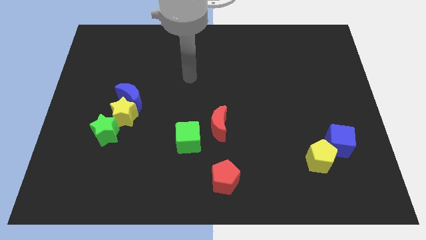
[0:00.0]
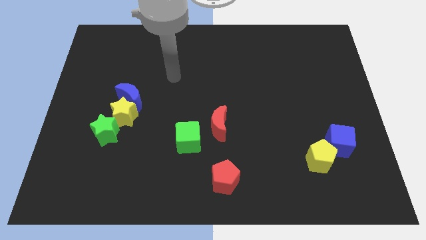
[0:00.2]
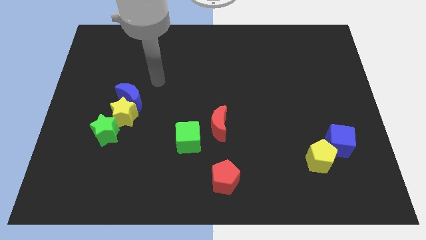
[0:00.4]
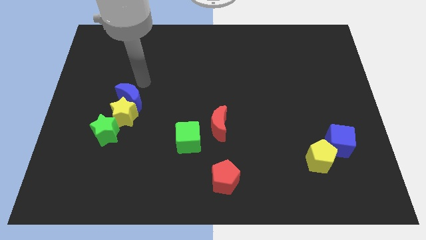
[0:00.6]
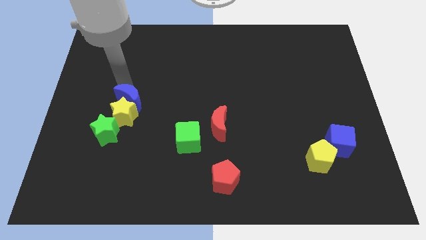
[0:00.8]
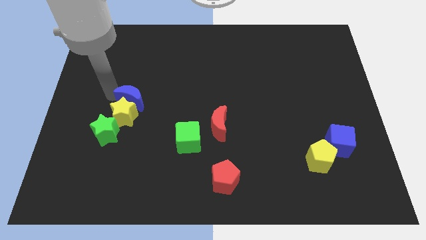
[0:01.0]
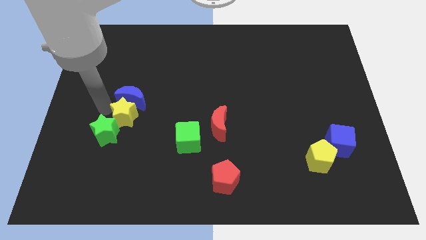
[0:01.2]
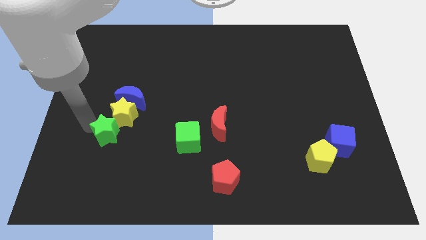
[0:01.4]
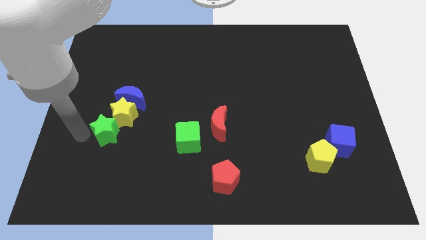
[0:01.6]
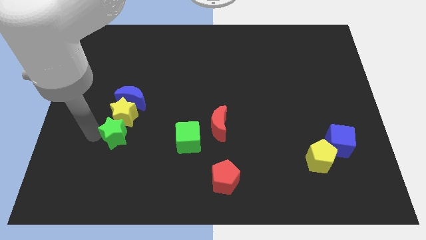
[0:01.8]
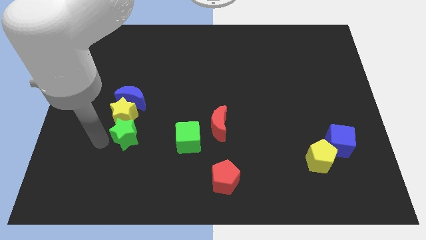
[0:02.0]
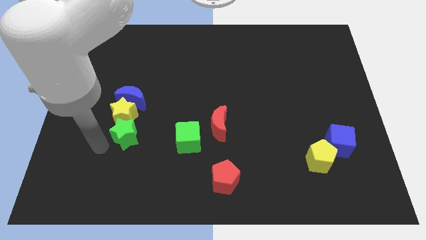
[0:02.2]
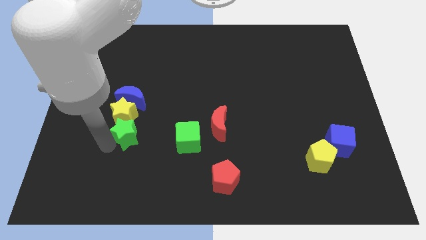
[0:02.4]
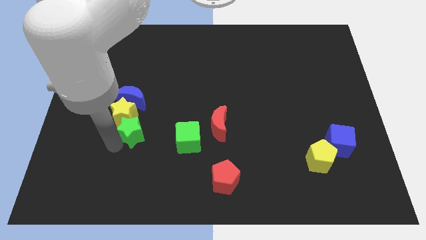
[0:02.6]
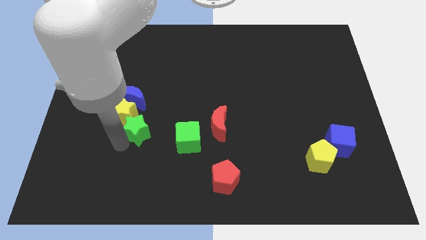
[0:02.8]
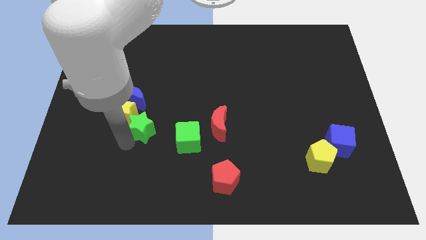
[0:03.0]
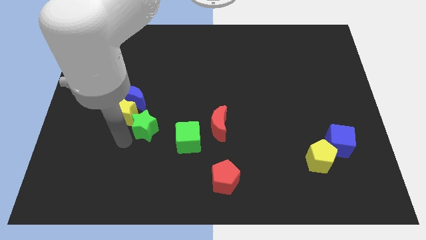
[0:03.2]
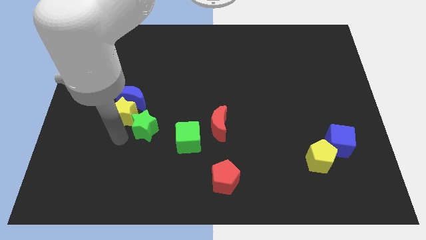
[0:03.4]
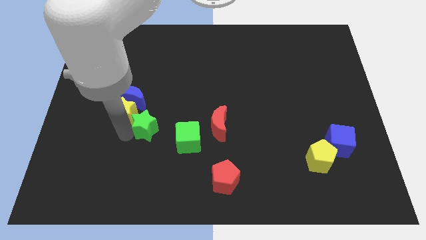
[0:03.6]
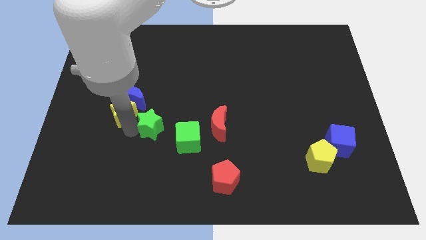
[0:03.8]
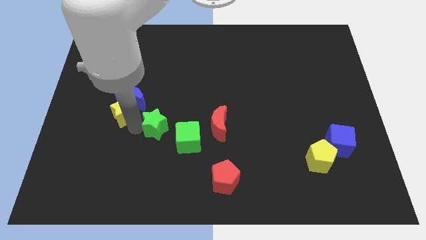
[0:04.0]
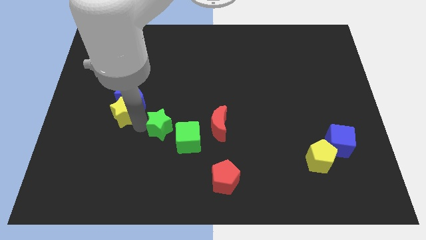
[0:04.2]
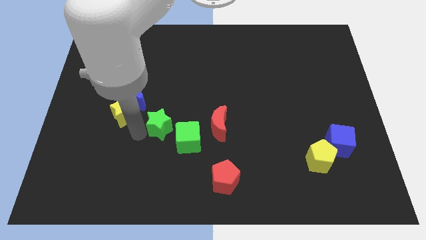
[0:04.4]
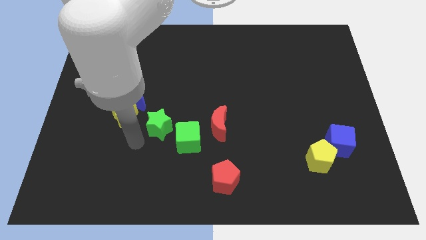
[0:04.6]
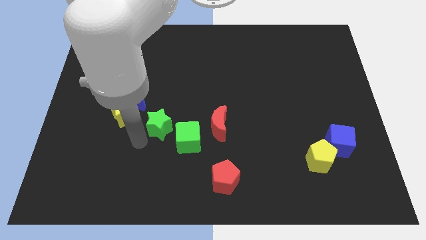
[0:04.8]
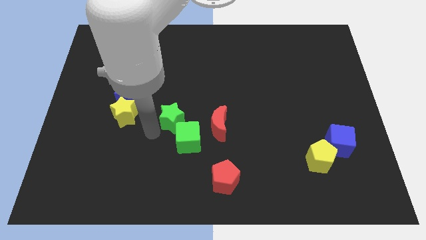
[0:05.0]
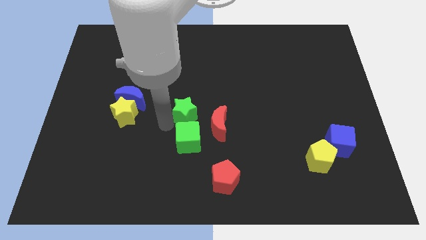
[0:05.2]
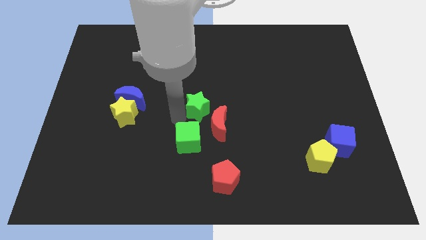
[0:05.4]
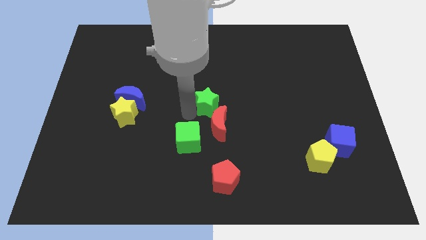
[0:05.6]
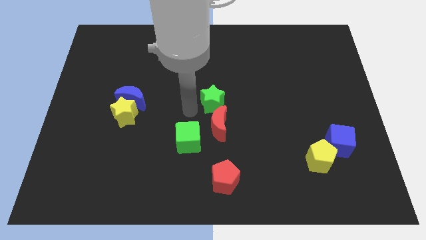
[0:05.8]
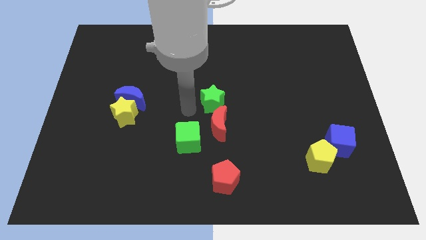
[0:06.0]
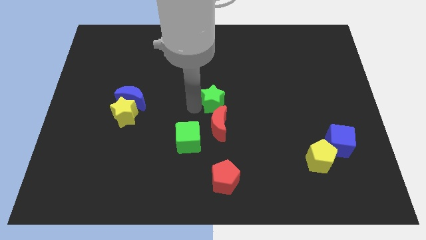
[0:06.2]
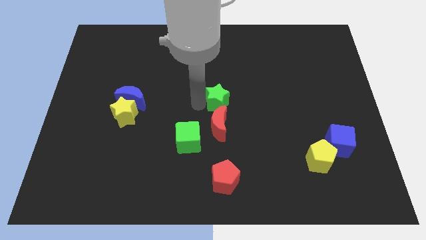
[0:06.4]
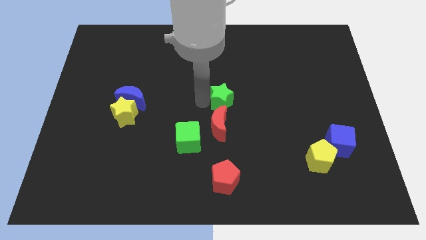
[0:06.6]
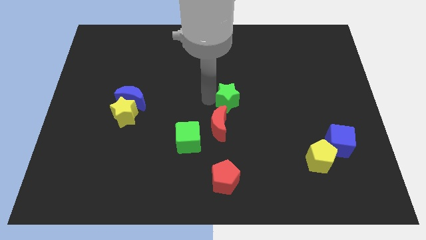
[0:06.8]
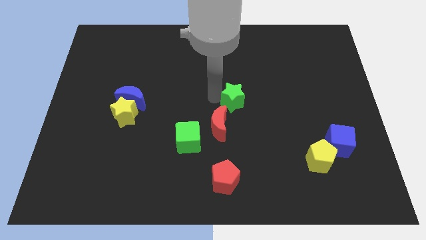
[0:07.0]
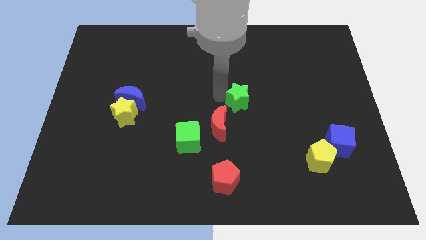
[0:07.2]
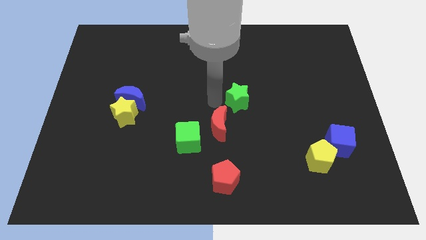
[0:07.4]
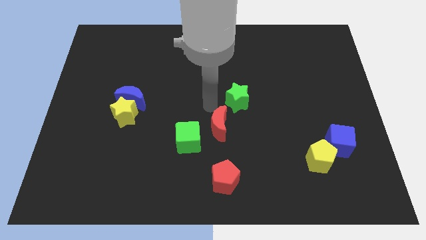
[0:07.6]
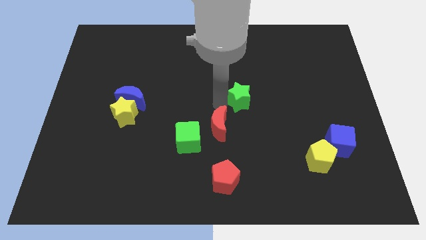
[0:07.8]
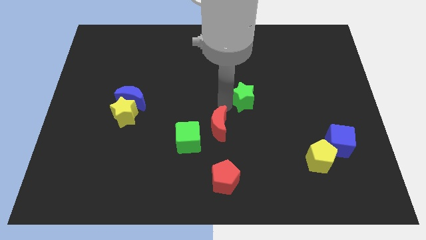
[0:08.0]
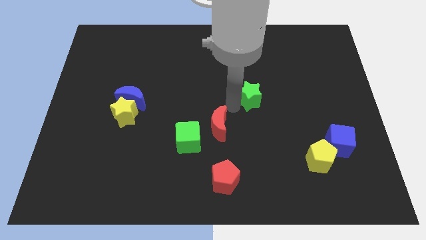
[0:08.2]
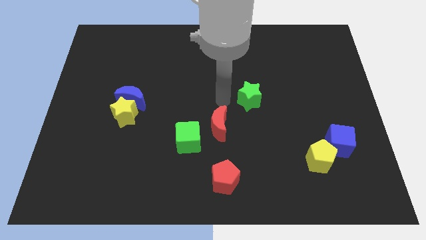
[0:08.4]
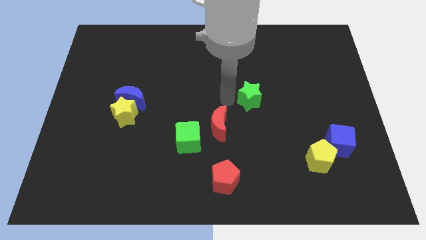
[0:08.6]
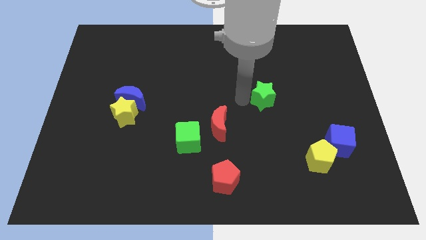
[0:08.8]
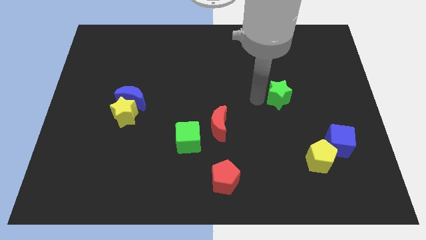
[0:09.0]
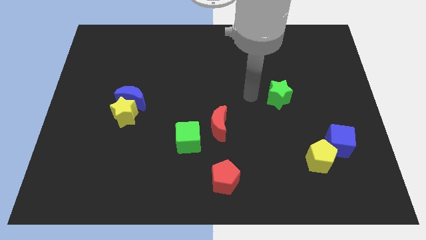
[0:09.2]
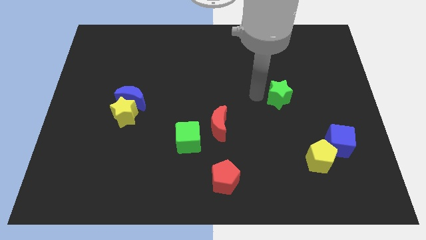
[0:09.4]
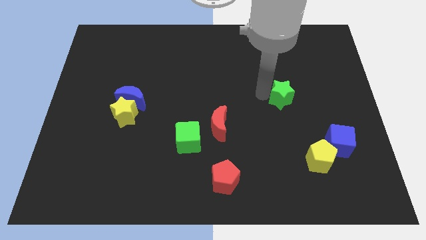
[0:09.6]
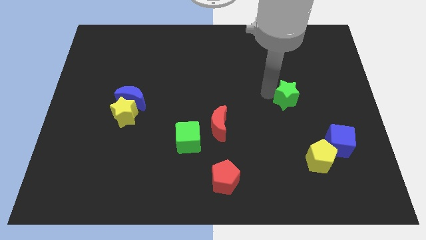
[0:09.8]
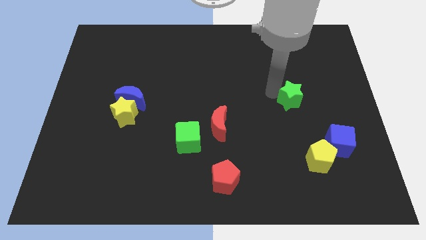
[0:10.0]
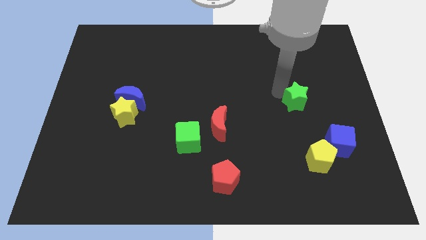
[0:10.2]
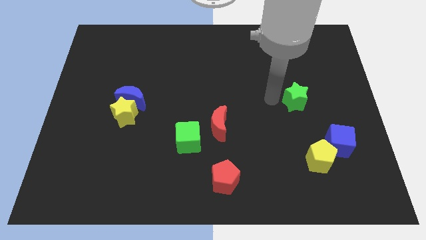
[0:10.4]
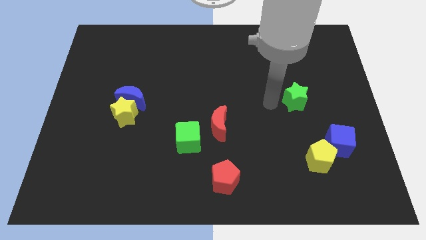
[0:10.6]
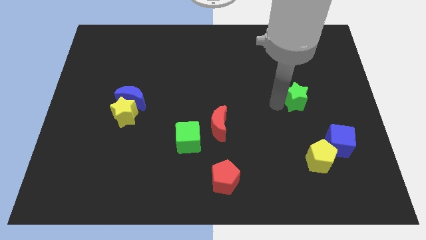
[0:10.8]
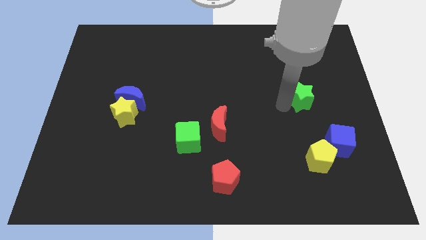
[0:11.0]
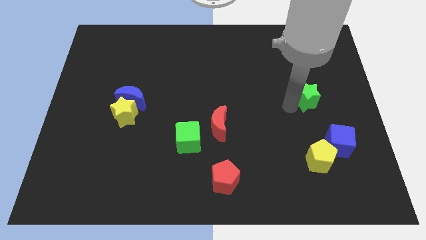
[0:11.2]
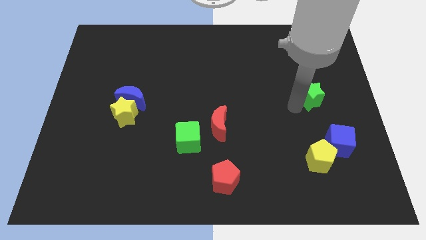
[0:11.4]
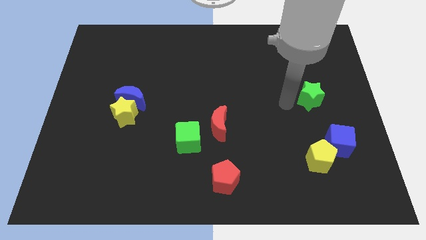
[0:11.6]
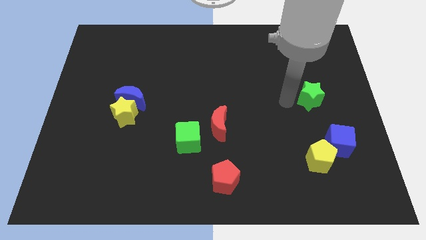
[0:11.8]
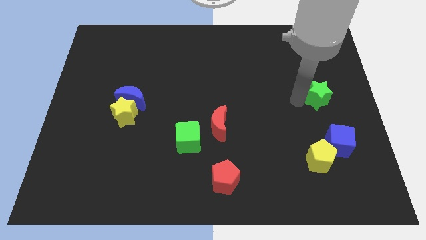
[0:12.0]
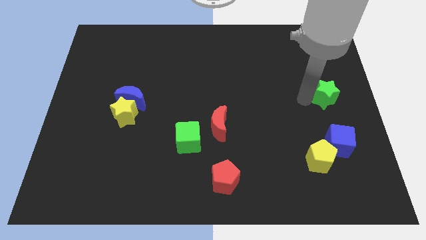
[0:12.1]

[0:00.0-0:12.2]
slide the green star to the right side
